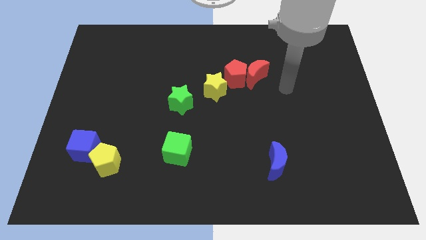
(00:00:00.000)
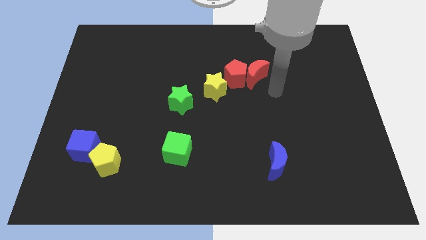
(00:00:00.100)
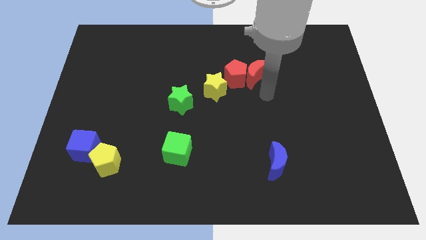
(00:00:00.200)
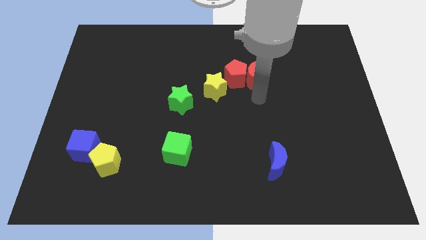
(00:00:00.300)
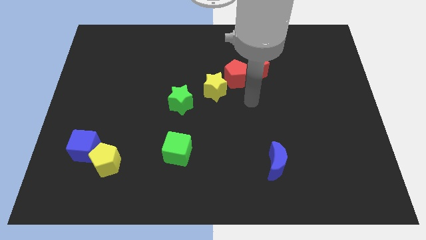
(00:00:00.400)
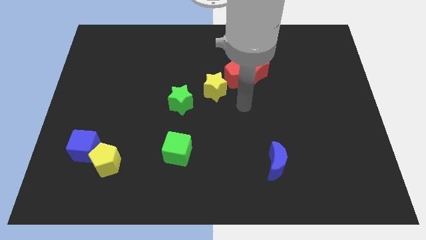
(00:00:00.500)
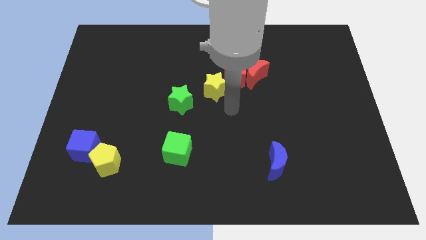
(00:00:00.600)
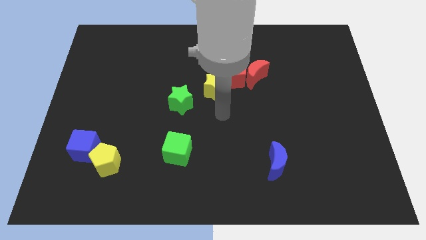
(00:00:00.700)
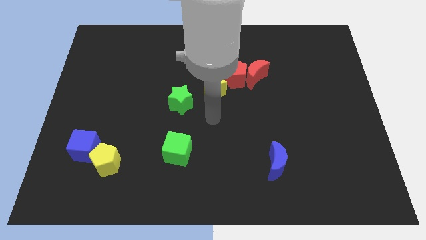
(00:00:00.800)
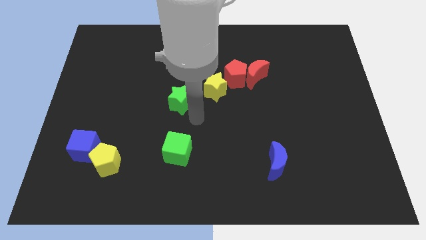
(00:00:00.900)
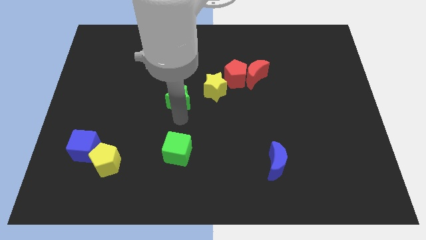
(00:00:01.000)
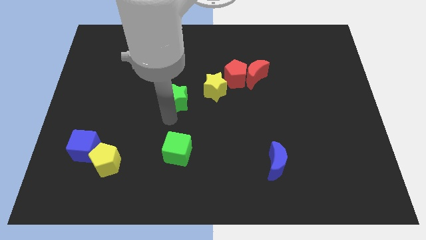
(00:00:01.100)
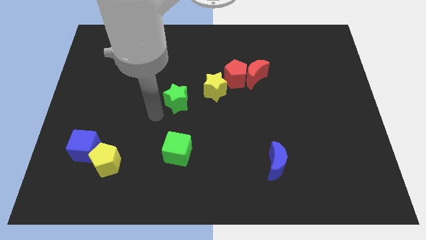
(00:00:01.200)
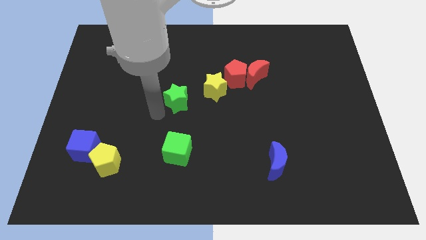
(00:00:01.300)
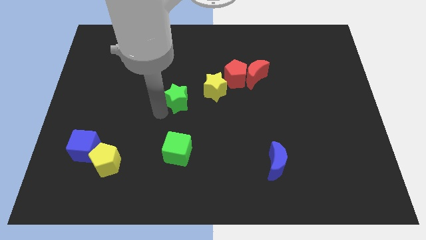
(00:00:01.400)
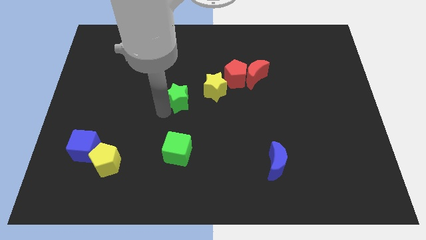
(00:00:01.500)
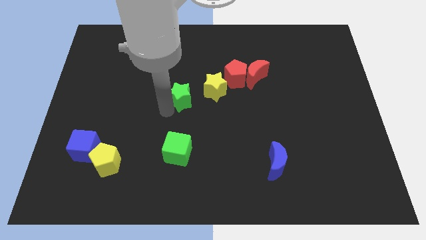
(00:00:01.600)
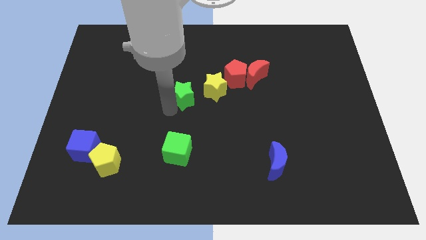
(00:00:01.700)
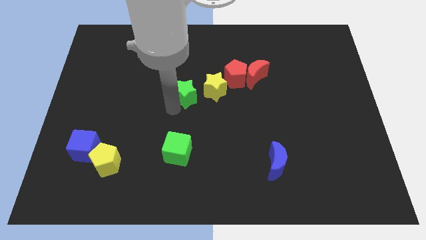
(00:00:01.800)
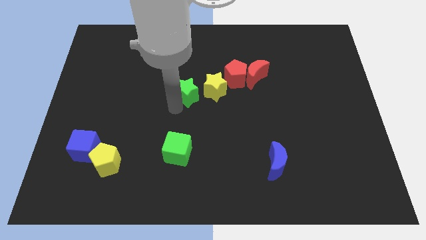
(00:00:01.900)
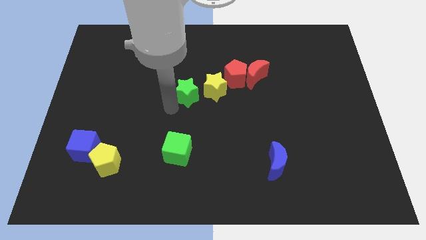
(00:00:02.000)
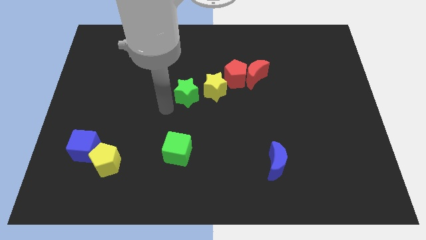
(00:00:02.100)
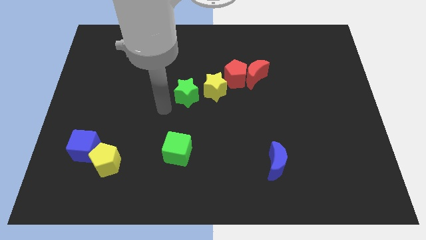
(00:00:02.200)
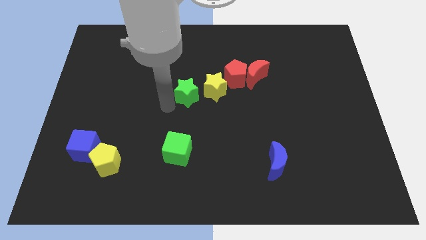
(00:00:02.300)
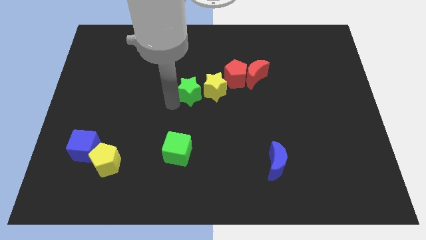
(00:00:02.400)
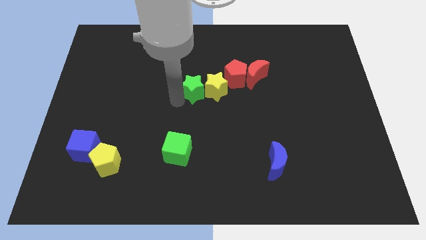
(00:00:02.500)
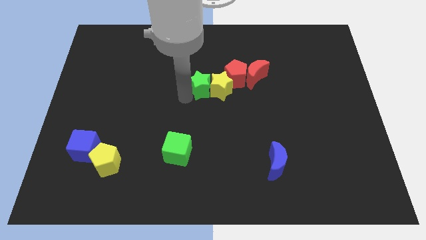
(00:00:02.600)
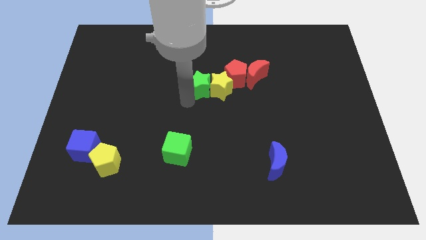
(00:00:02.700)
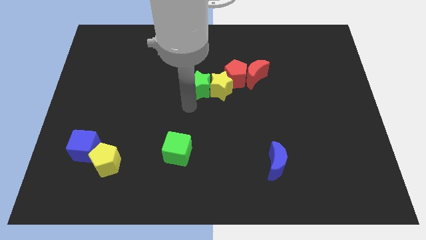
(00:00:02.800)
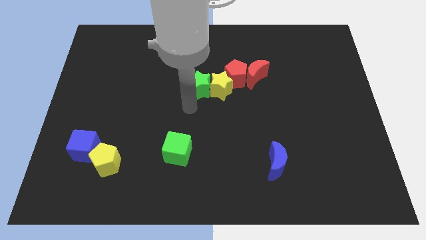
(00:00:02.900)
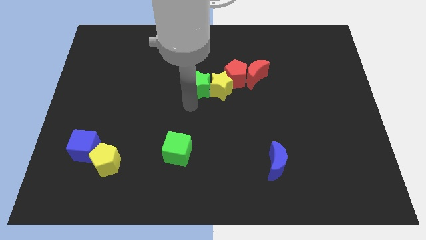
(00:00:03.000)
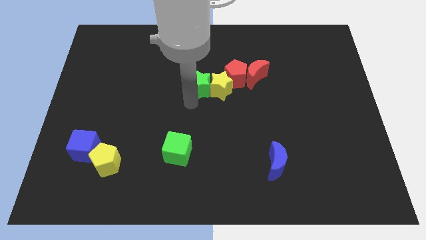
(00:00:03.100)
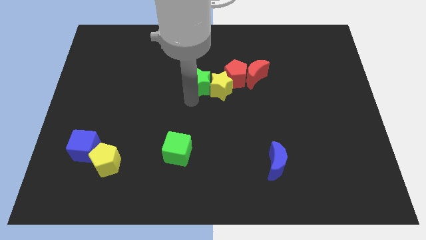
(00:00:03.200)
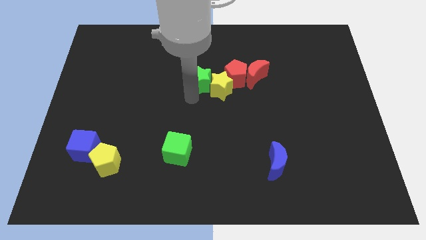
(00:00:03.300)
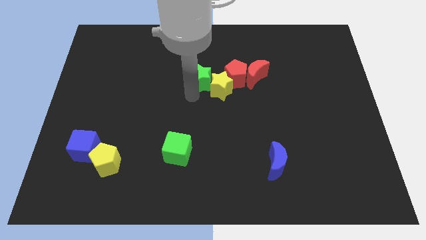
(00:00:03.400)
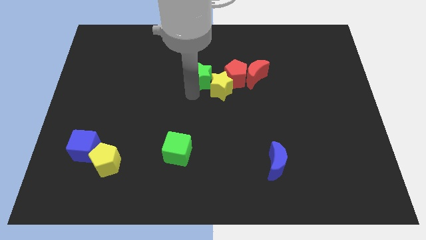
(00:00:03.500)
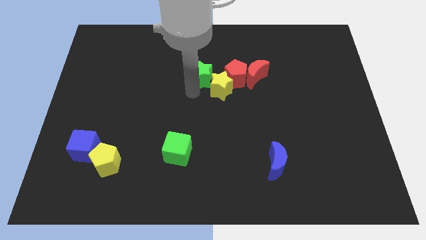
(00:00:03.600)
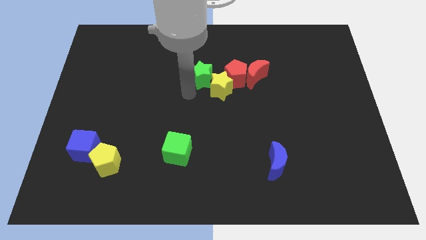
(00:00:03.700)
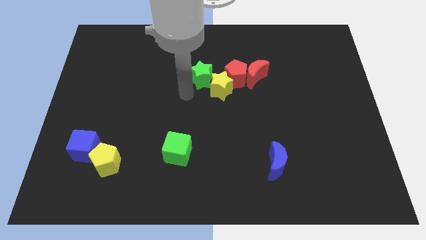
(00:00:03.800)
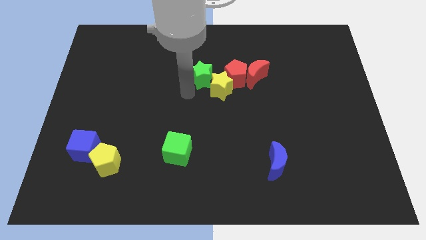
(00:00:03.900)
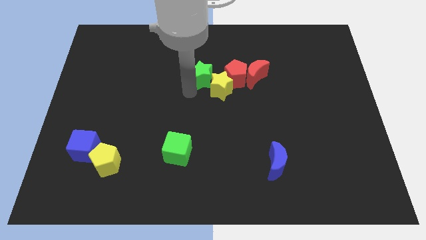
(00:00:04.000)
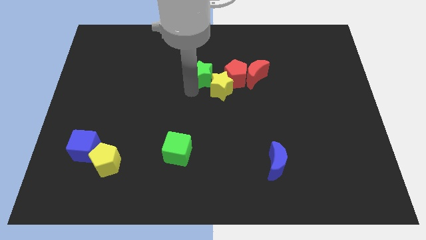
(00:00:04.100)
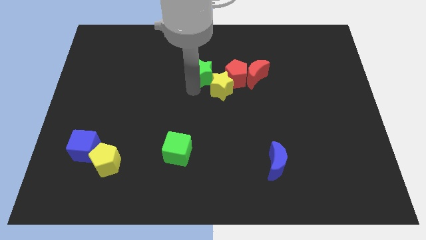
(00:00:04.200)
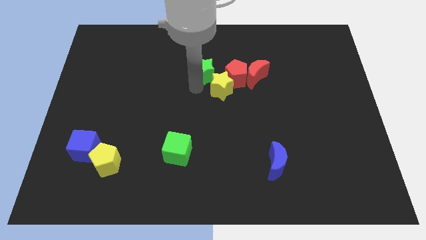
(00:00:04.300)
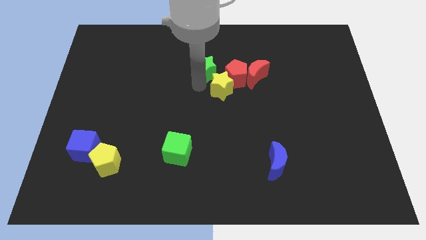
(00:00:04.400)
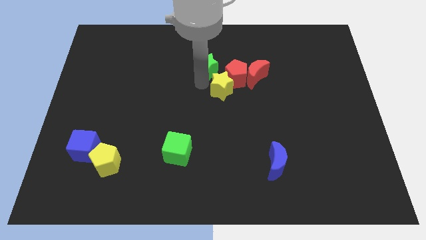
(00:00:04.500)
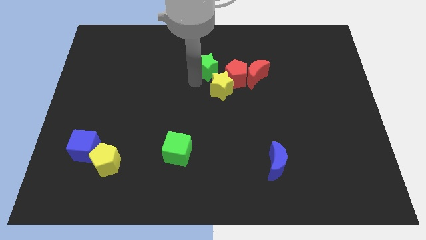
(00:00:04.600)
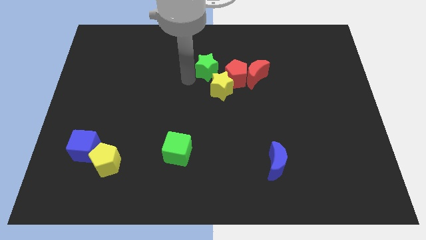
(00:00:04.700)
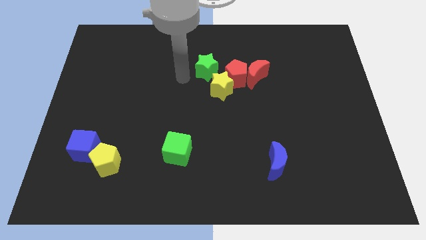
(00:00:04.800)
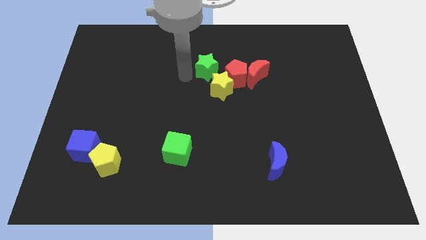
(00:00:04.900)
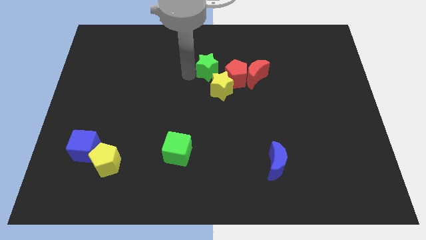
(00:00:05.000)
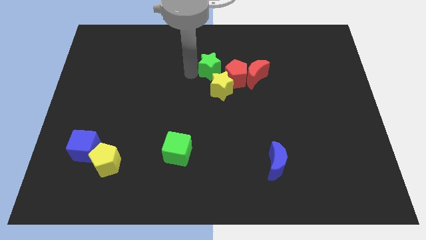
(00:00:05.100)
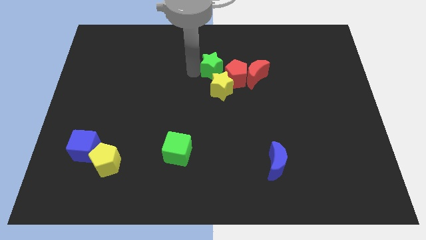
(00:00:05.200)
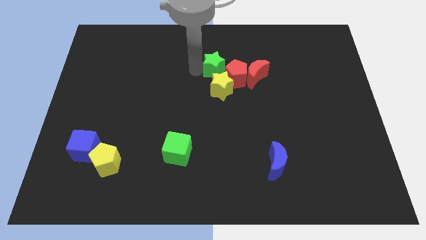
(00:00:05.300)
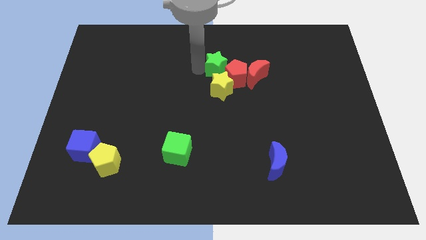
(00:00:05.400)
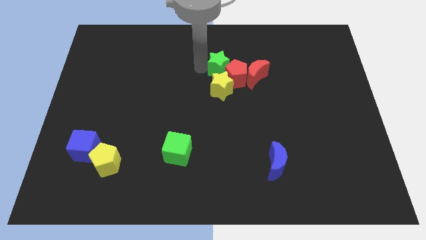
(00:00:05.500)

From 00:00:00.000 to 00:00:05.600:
put the green star diagonally up and to the left of the red moon

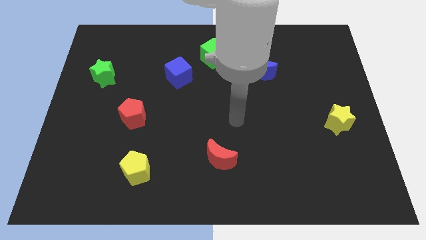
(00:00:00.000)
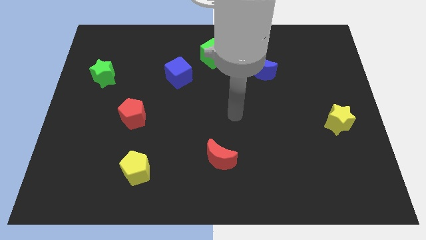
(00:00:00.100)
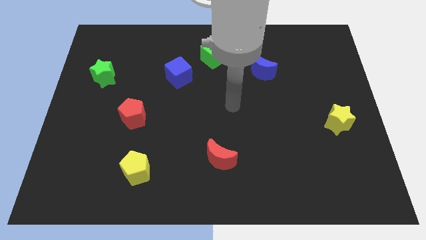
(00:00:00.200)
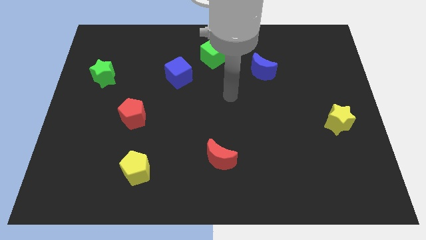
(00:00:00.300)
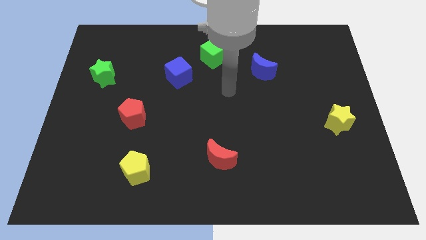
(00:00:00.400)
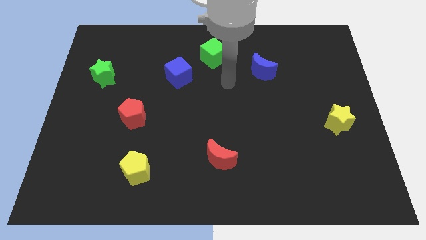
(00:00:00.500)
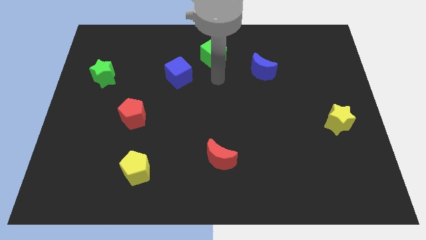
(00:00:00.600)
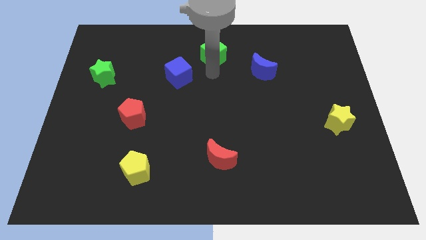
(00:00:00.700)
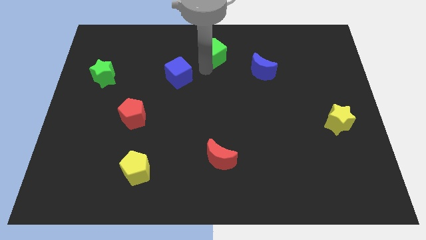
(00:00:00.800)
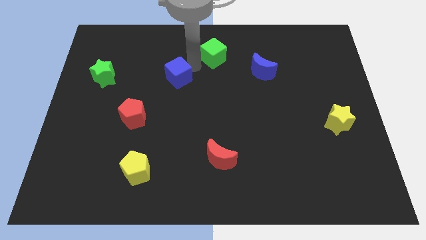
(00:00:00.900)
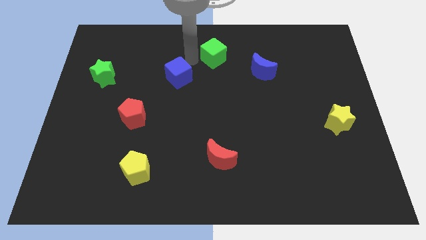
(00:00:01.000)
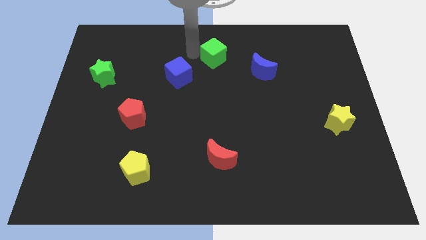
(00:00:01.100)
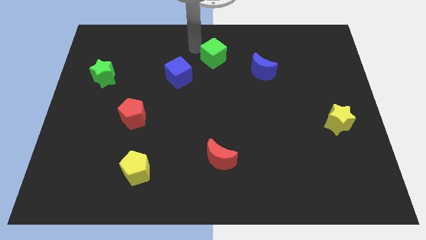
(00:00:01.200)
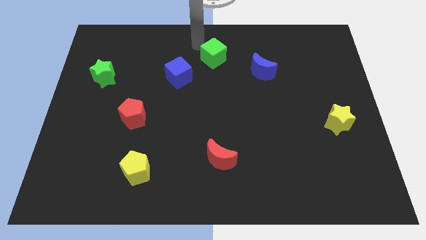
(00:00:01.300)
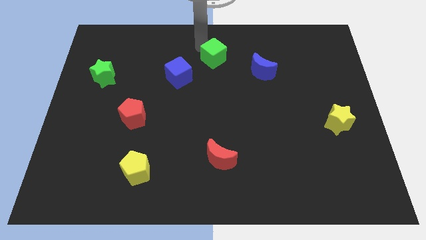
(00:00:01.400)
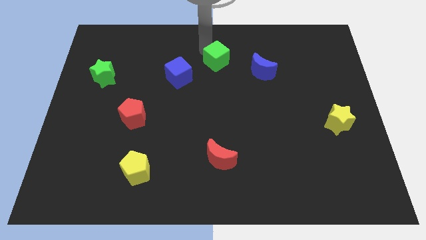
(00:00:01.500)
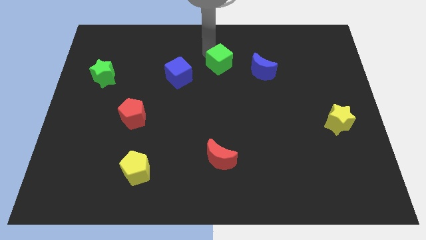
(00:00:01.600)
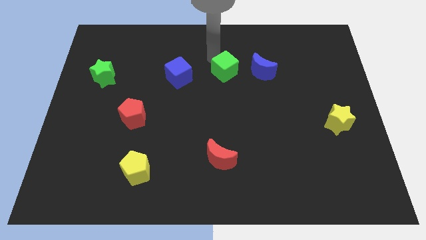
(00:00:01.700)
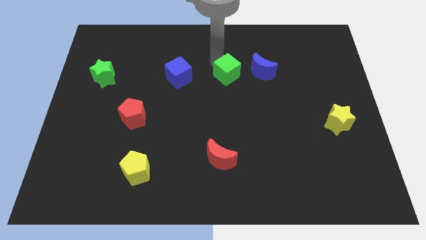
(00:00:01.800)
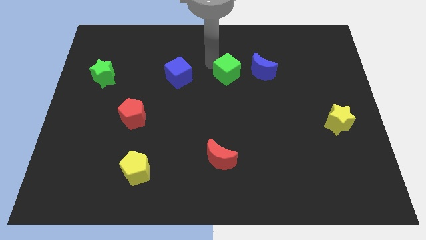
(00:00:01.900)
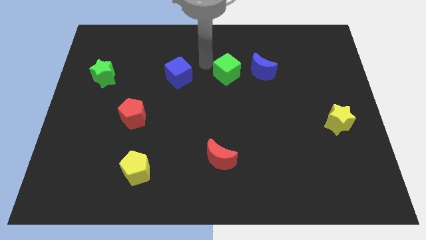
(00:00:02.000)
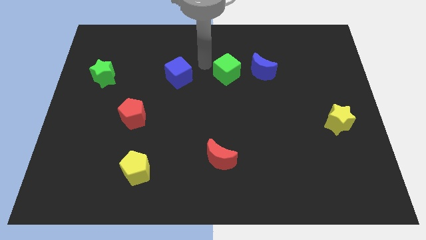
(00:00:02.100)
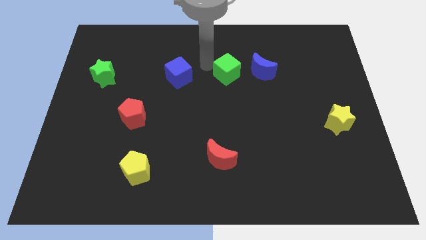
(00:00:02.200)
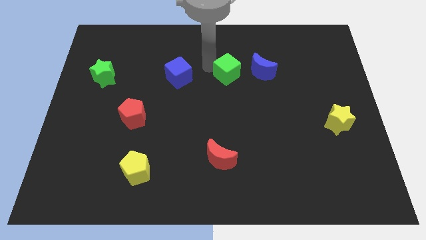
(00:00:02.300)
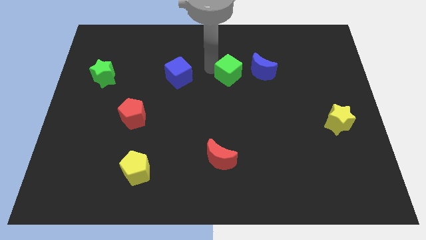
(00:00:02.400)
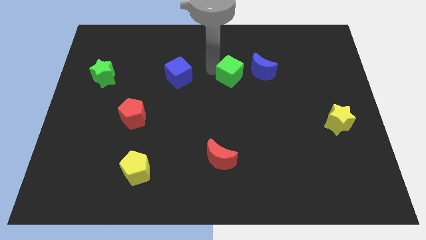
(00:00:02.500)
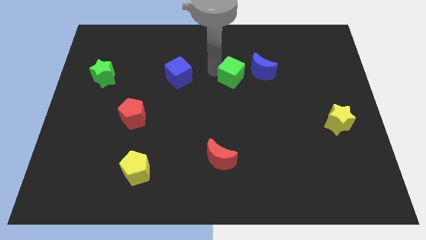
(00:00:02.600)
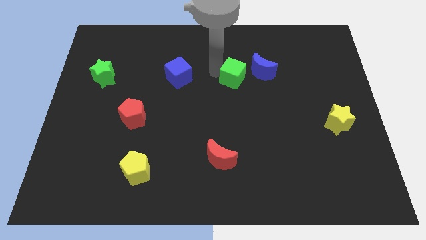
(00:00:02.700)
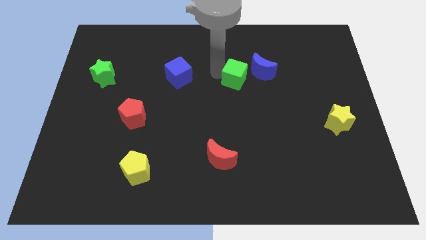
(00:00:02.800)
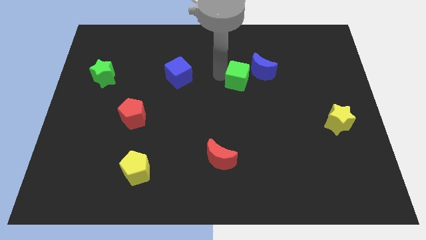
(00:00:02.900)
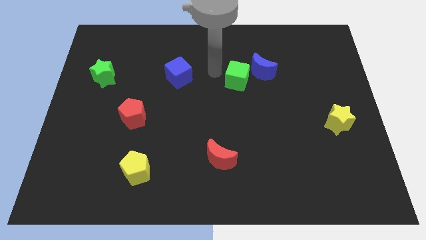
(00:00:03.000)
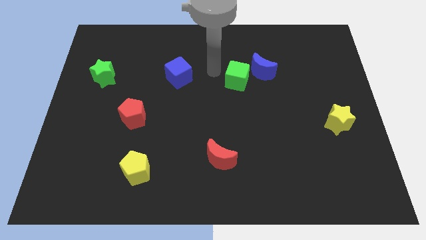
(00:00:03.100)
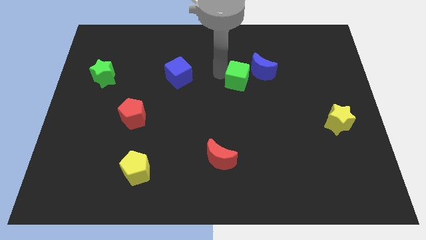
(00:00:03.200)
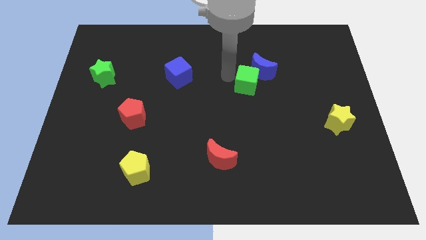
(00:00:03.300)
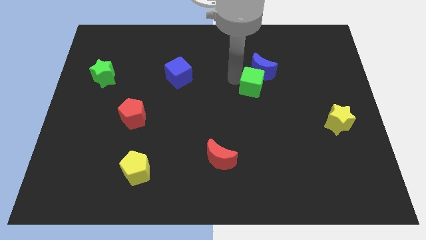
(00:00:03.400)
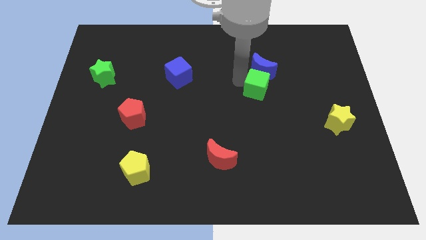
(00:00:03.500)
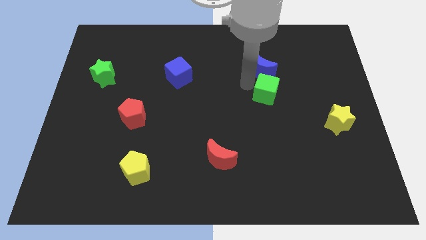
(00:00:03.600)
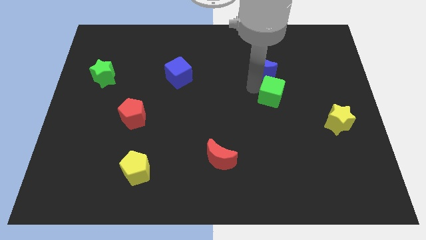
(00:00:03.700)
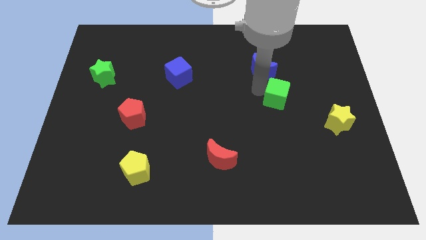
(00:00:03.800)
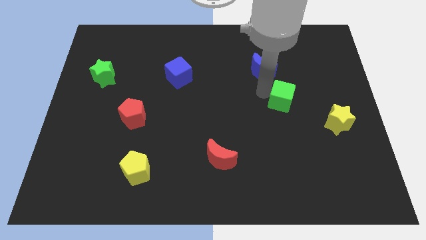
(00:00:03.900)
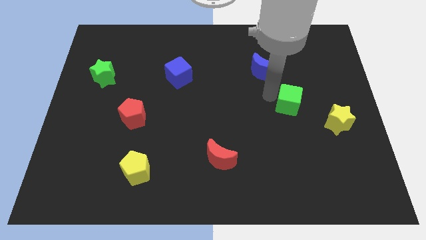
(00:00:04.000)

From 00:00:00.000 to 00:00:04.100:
slide the green cube to the top left of the yellow star
